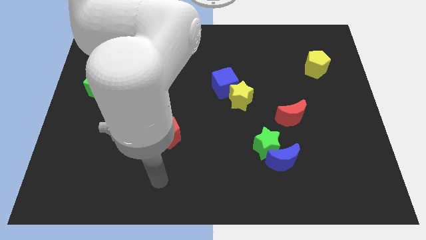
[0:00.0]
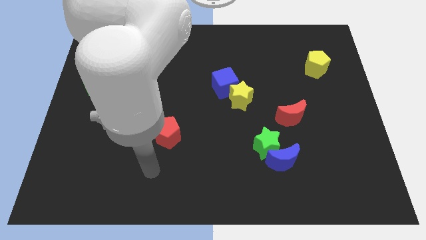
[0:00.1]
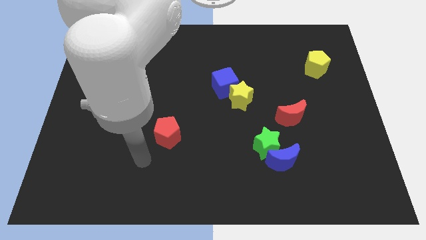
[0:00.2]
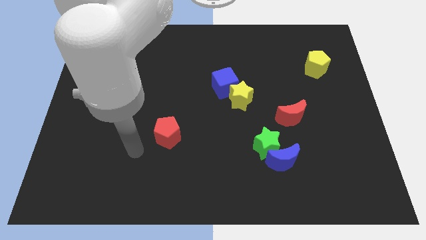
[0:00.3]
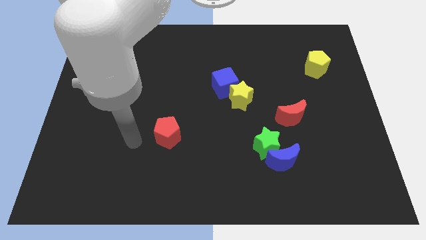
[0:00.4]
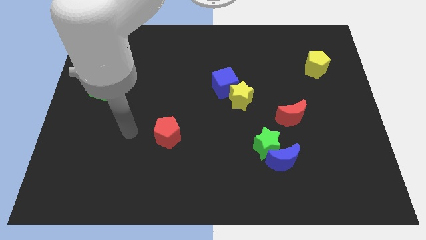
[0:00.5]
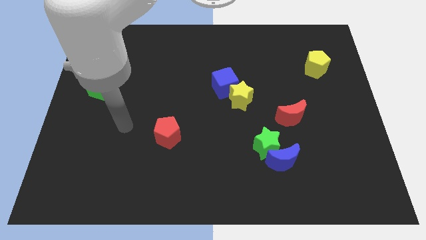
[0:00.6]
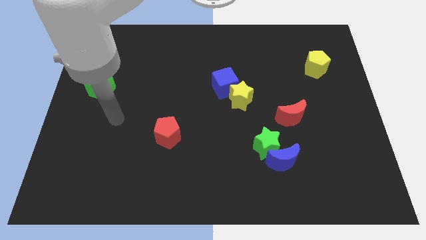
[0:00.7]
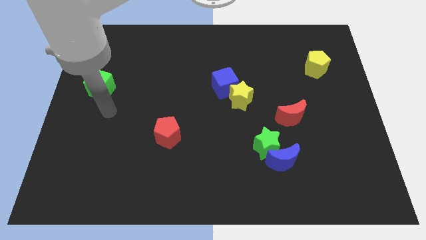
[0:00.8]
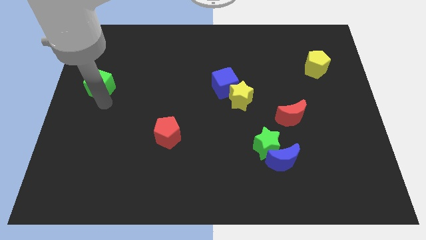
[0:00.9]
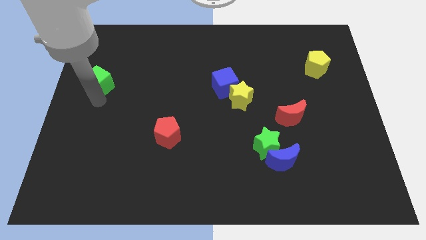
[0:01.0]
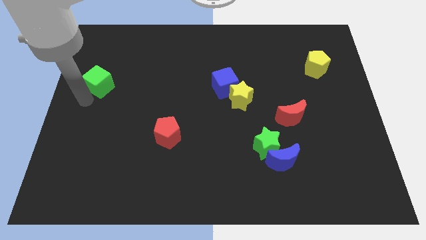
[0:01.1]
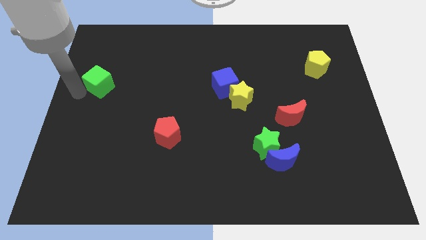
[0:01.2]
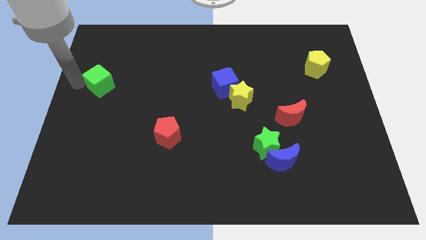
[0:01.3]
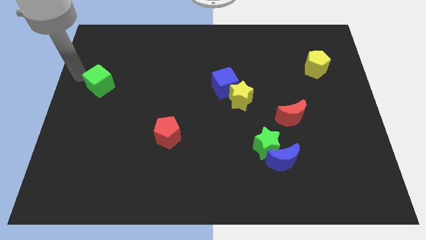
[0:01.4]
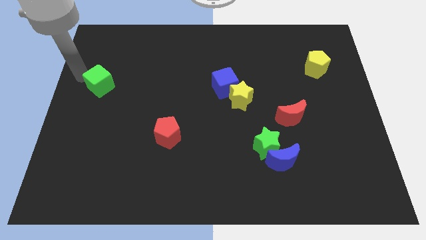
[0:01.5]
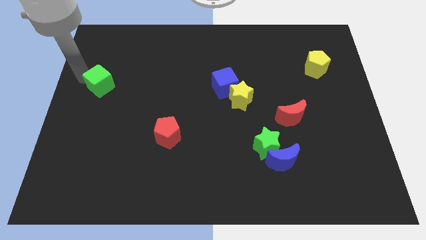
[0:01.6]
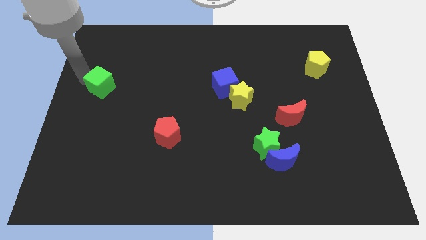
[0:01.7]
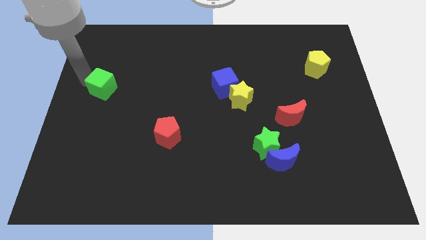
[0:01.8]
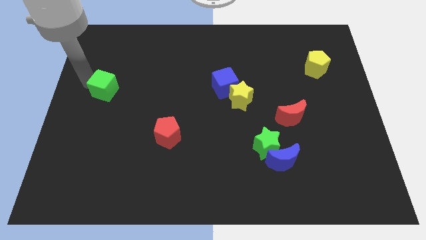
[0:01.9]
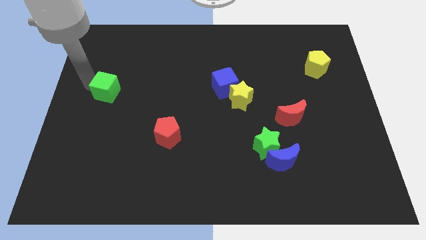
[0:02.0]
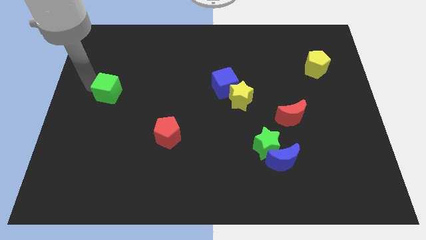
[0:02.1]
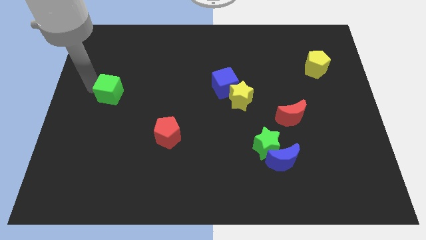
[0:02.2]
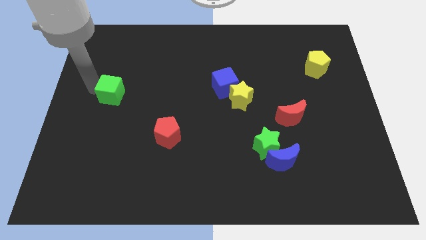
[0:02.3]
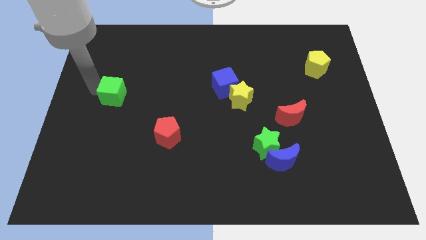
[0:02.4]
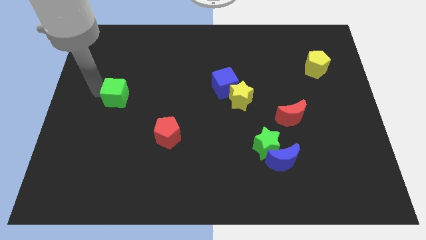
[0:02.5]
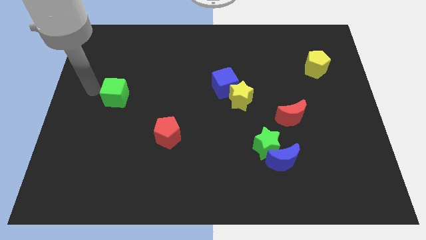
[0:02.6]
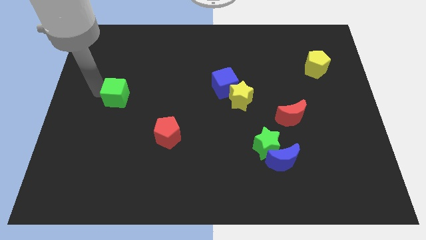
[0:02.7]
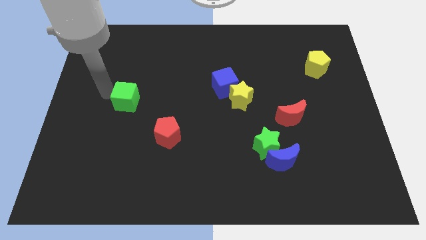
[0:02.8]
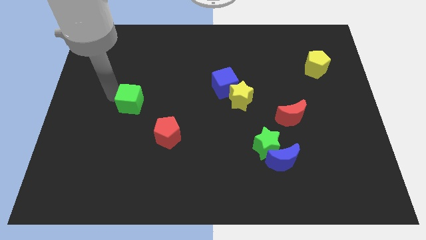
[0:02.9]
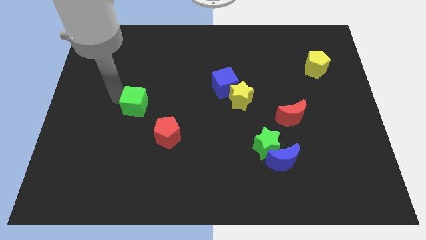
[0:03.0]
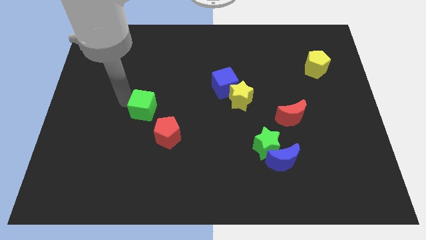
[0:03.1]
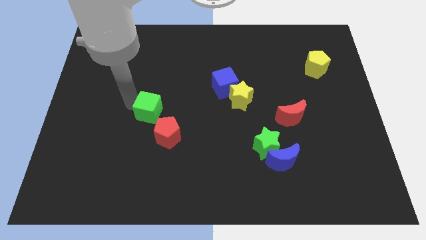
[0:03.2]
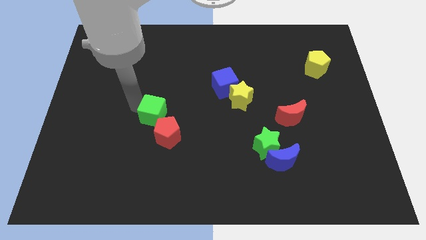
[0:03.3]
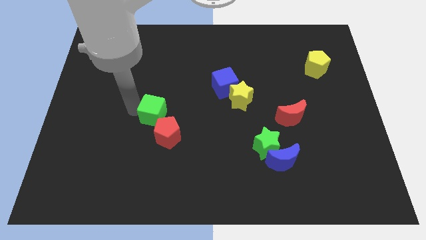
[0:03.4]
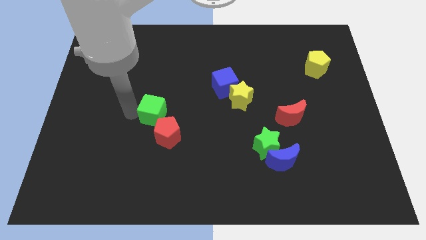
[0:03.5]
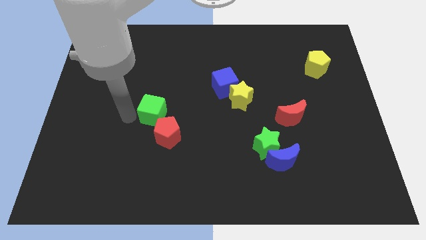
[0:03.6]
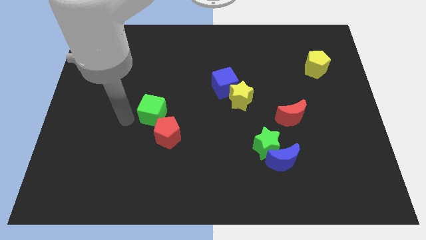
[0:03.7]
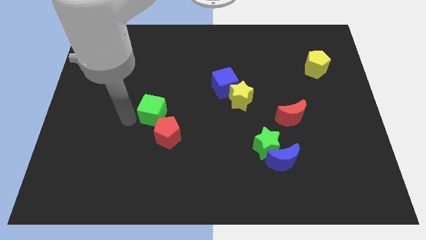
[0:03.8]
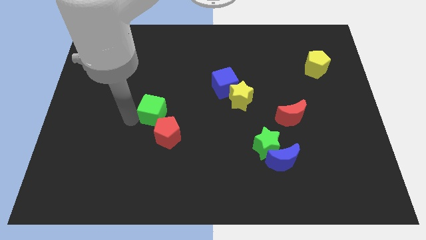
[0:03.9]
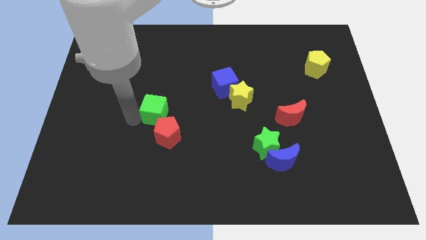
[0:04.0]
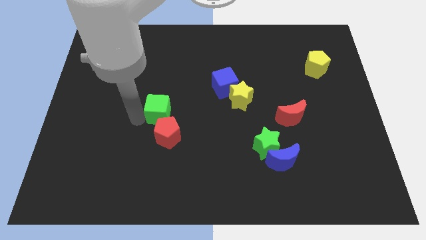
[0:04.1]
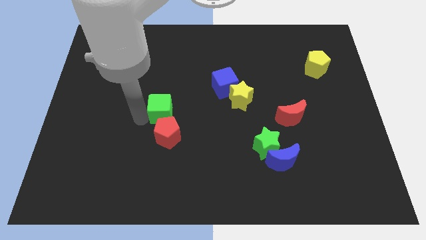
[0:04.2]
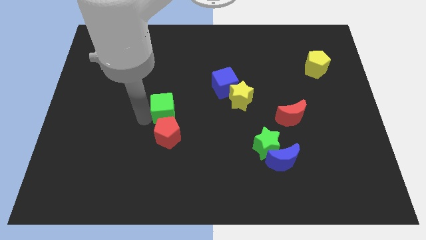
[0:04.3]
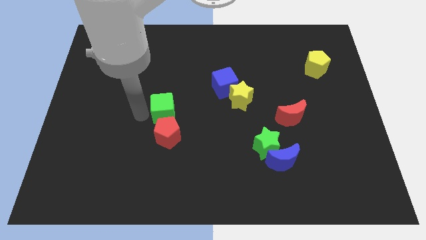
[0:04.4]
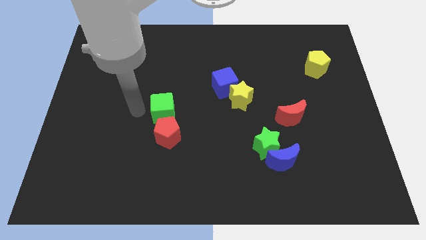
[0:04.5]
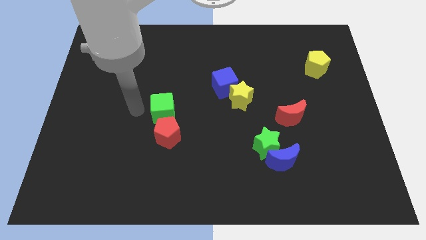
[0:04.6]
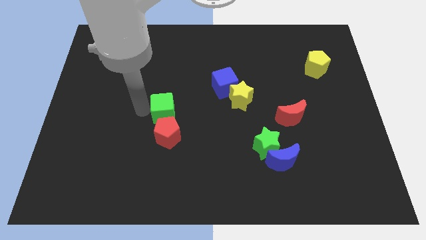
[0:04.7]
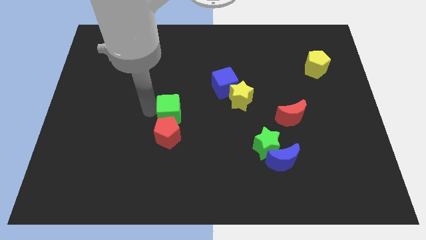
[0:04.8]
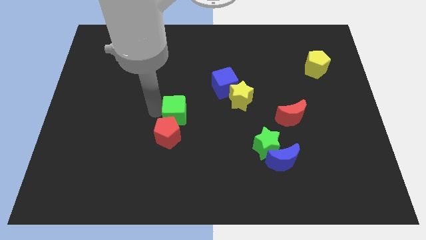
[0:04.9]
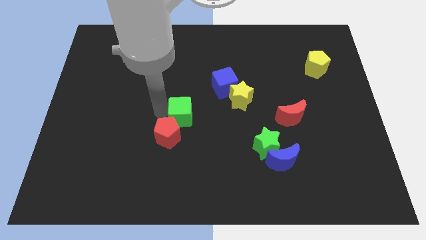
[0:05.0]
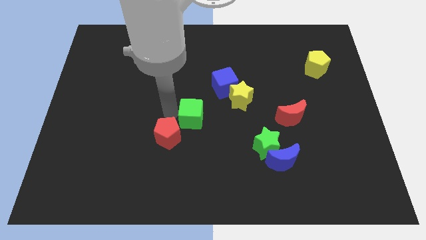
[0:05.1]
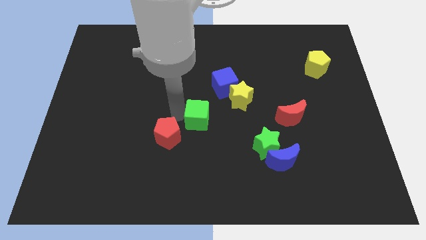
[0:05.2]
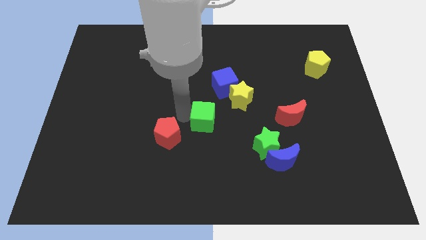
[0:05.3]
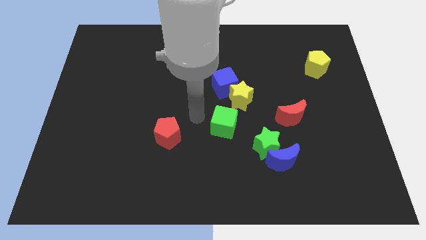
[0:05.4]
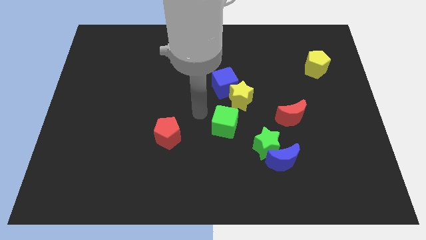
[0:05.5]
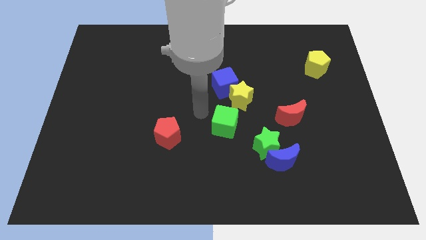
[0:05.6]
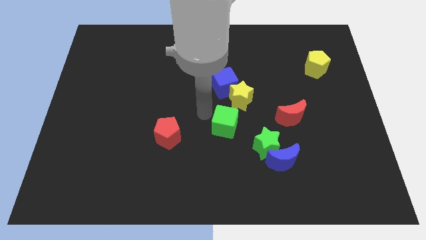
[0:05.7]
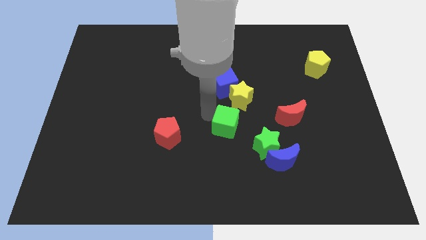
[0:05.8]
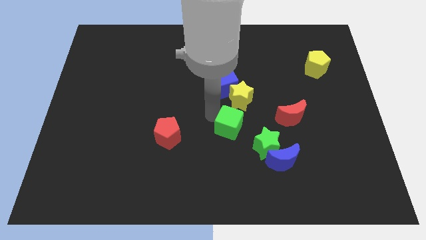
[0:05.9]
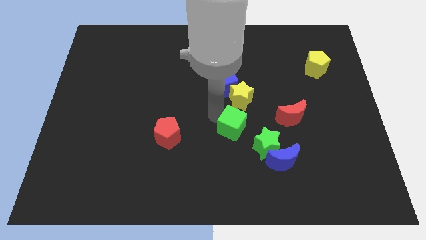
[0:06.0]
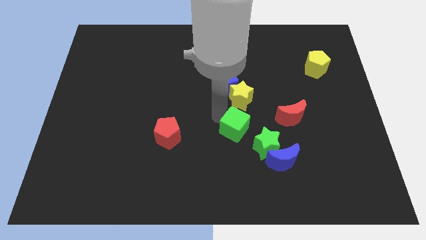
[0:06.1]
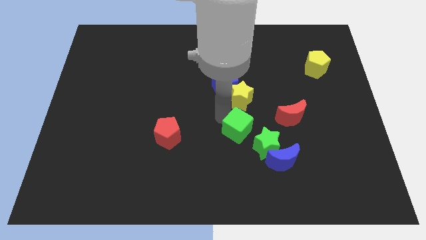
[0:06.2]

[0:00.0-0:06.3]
slide the green cube diagonally up and to the left of the blue moon

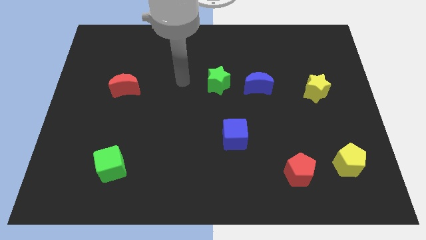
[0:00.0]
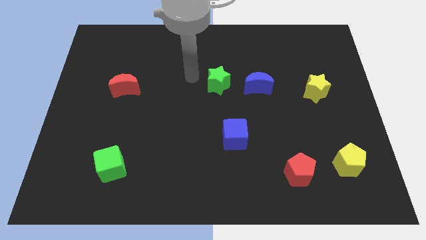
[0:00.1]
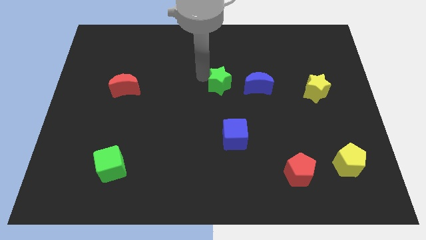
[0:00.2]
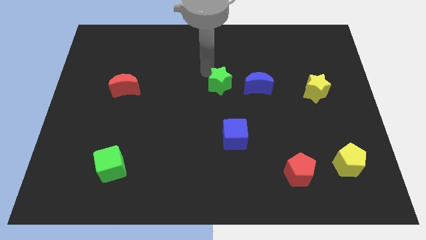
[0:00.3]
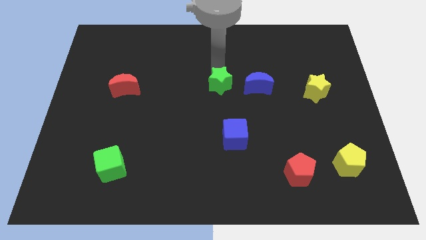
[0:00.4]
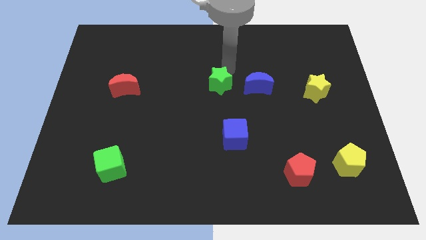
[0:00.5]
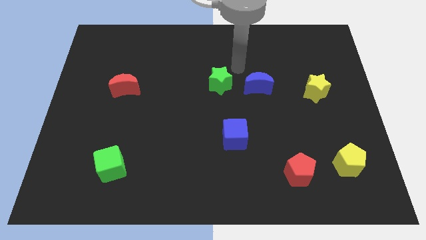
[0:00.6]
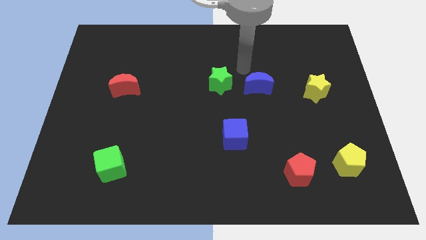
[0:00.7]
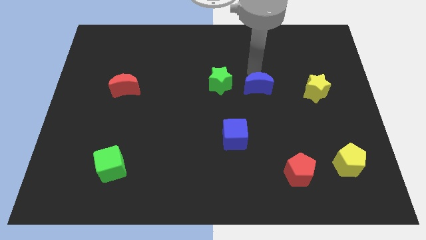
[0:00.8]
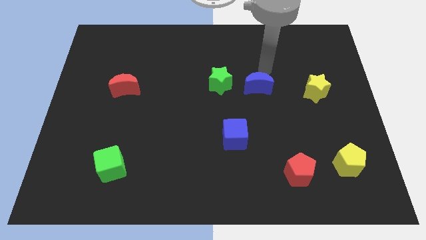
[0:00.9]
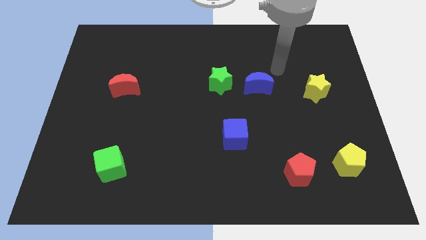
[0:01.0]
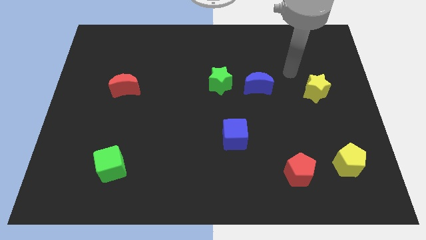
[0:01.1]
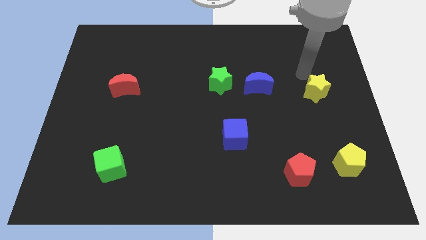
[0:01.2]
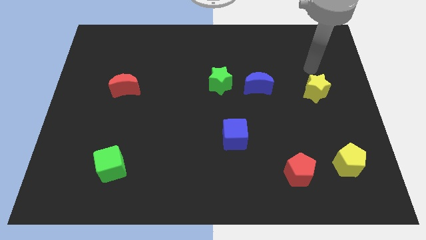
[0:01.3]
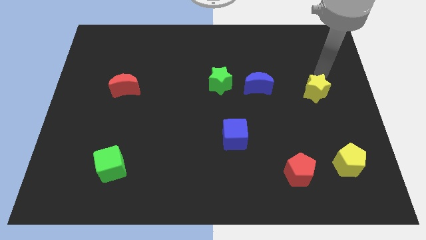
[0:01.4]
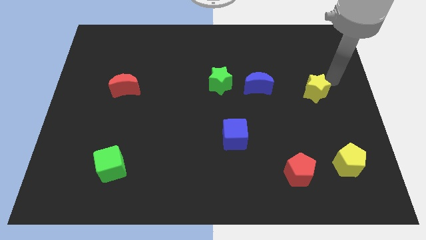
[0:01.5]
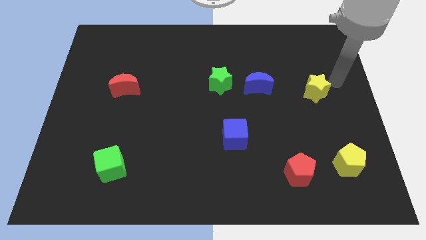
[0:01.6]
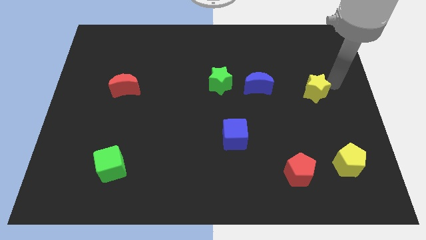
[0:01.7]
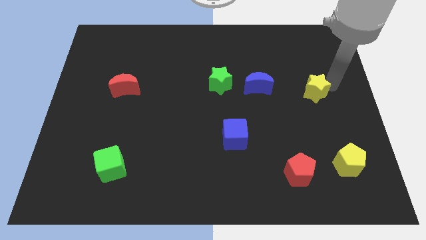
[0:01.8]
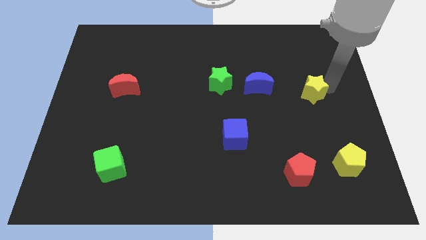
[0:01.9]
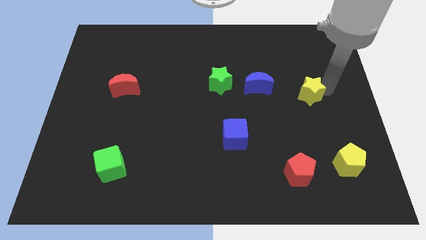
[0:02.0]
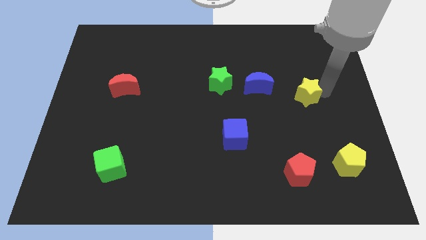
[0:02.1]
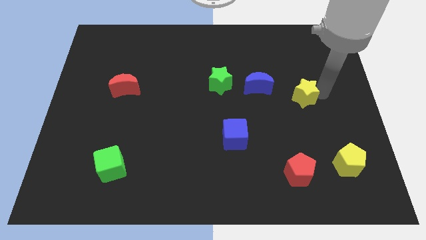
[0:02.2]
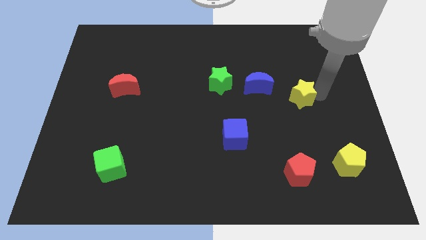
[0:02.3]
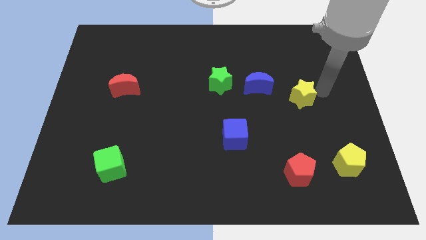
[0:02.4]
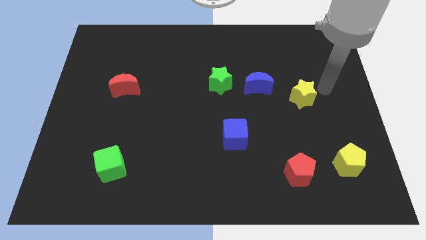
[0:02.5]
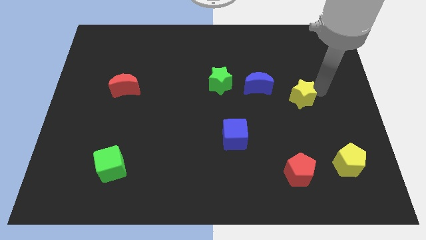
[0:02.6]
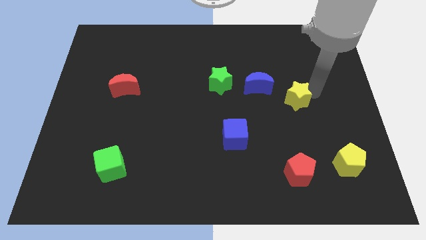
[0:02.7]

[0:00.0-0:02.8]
put the yellow star to the bottom right side of the blue moon
